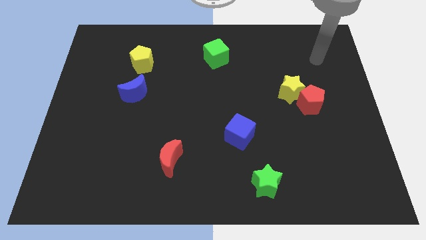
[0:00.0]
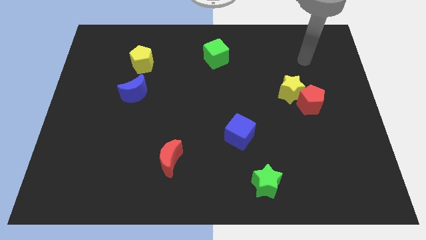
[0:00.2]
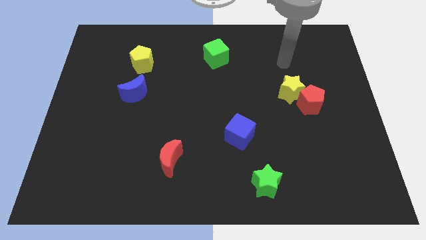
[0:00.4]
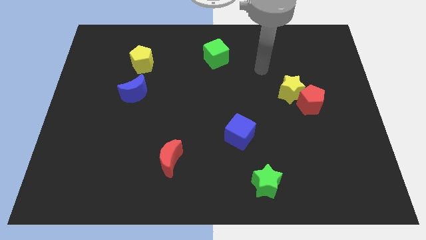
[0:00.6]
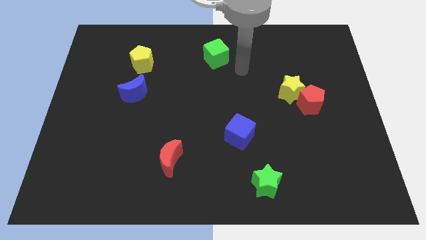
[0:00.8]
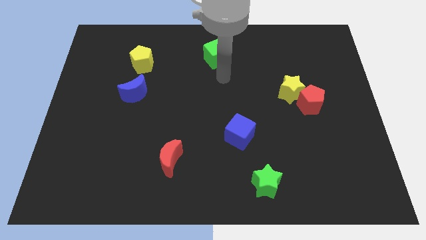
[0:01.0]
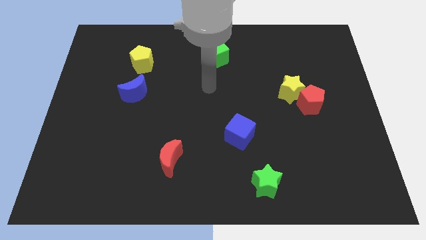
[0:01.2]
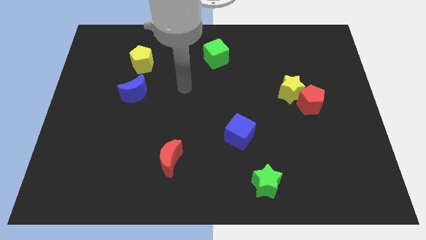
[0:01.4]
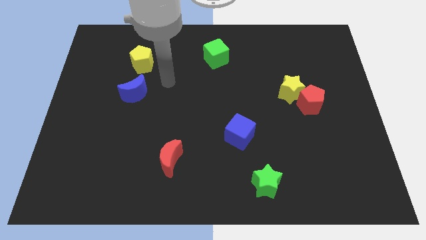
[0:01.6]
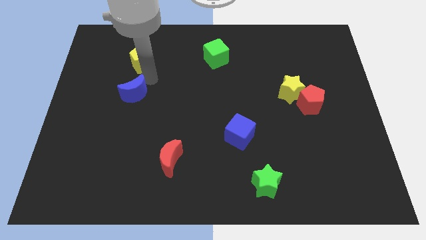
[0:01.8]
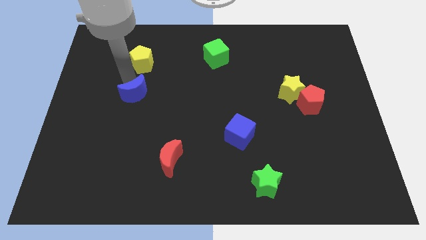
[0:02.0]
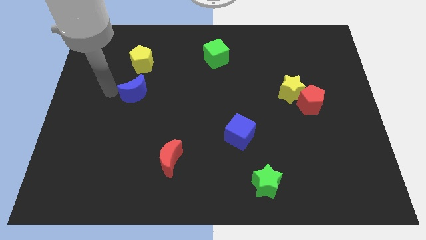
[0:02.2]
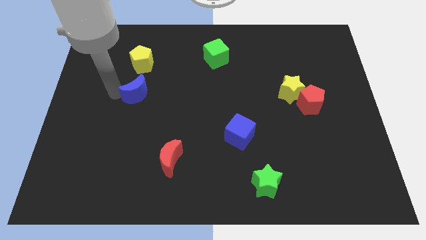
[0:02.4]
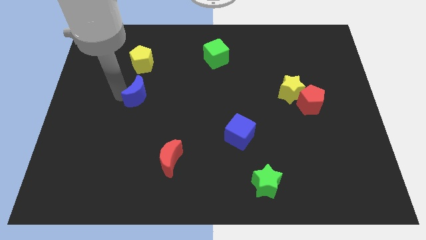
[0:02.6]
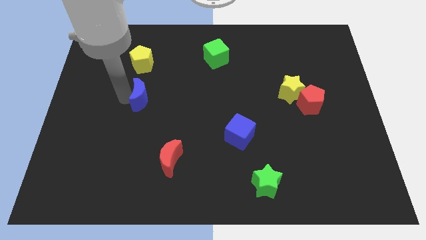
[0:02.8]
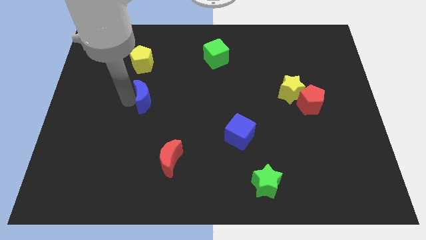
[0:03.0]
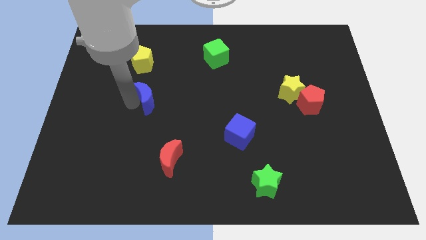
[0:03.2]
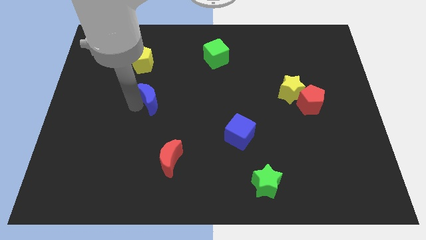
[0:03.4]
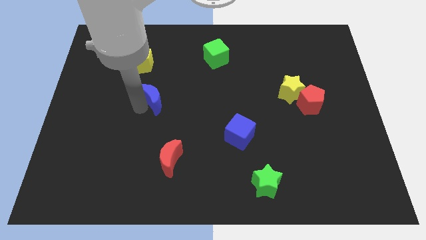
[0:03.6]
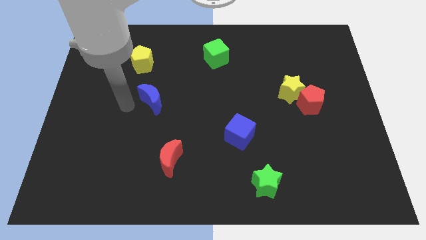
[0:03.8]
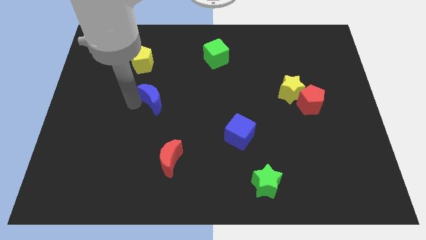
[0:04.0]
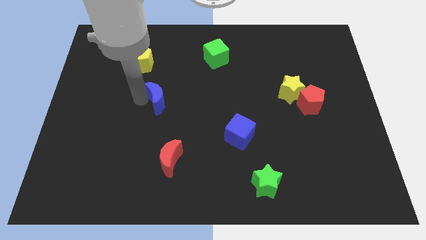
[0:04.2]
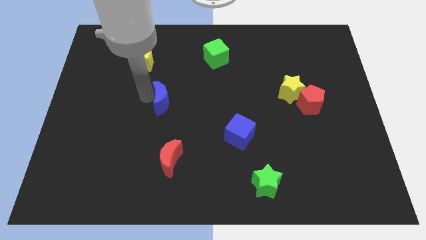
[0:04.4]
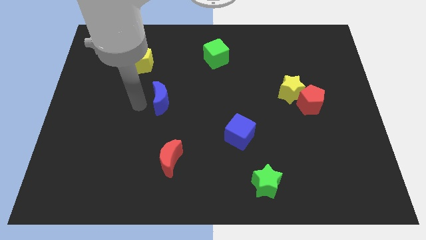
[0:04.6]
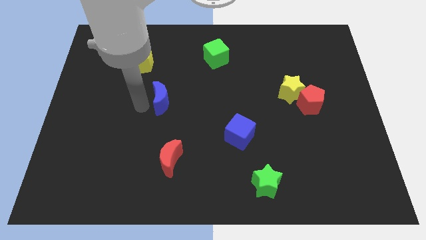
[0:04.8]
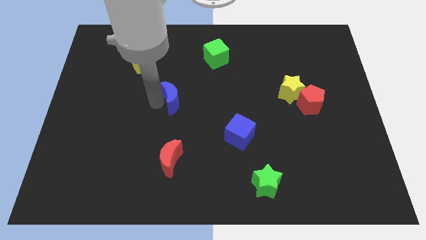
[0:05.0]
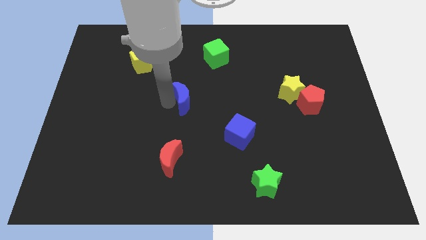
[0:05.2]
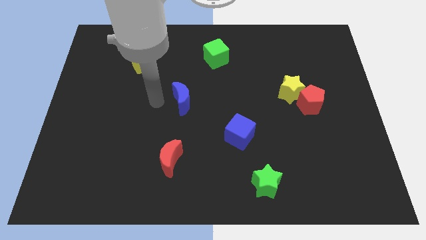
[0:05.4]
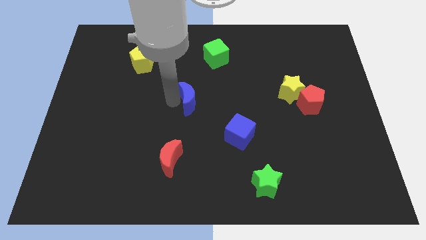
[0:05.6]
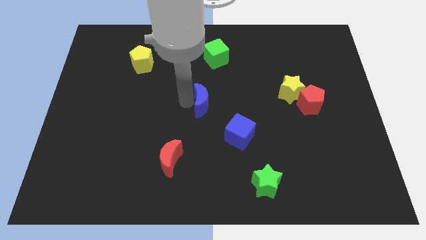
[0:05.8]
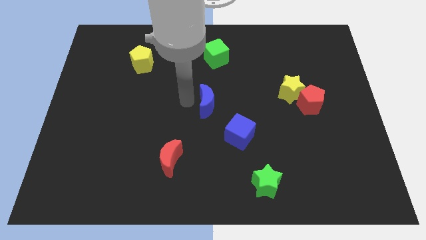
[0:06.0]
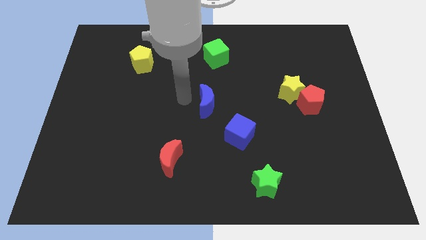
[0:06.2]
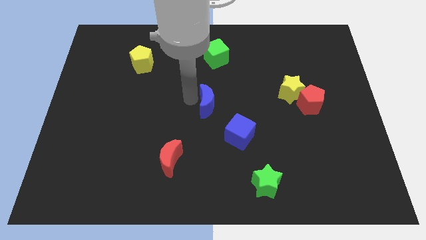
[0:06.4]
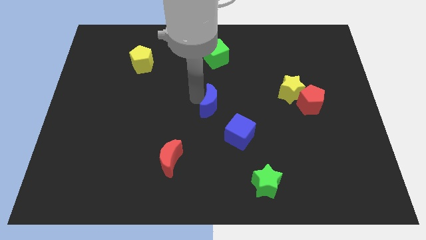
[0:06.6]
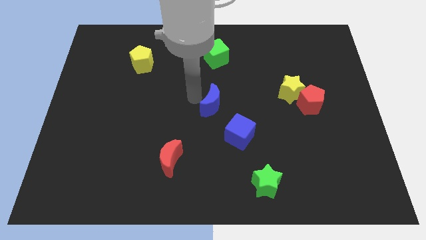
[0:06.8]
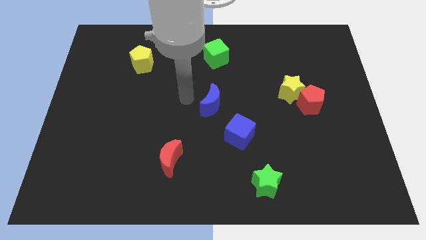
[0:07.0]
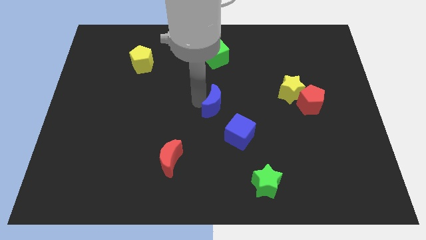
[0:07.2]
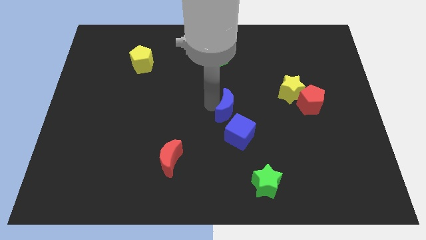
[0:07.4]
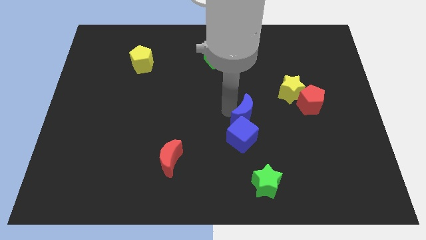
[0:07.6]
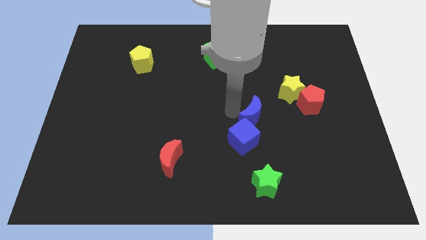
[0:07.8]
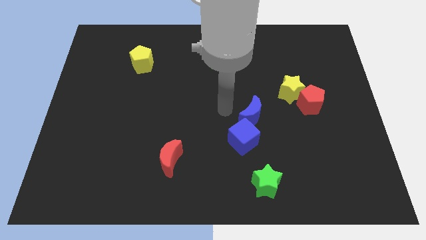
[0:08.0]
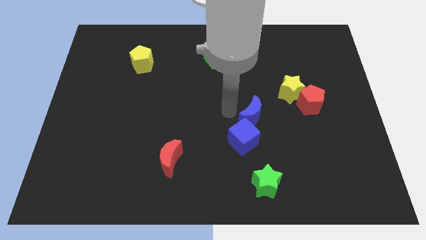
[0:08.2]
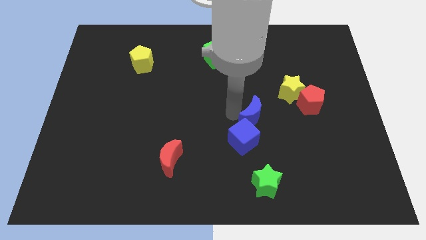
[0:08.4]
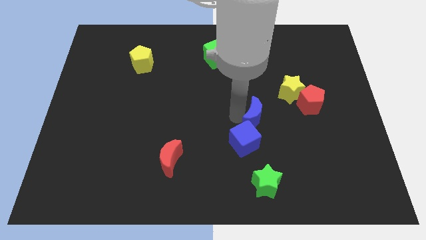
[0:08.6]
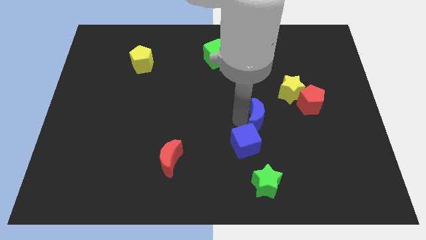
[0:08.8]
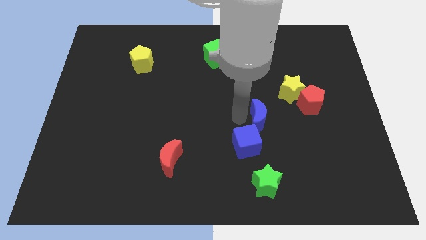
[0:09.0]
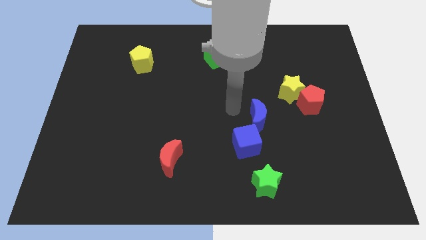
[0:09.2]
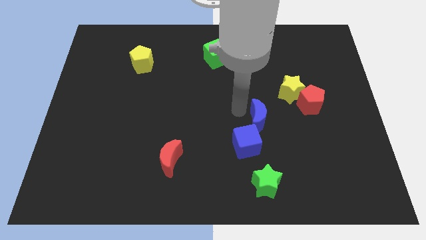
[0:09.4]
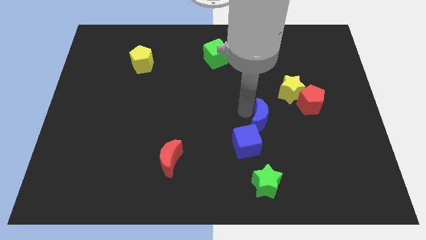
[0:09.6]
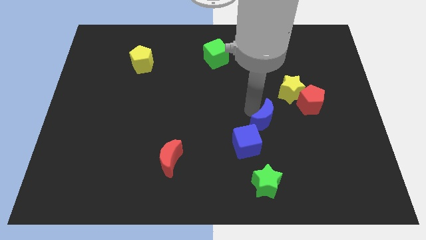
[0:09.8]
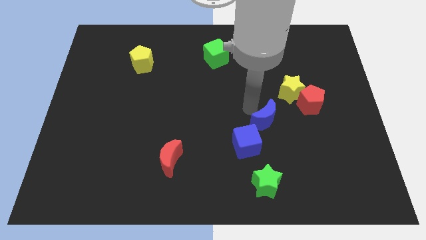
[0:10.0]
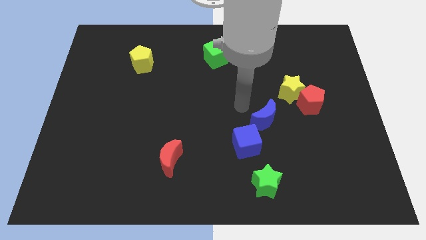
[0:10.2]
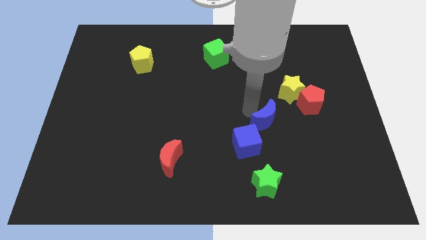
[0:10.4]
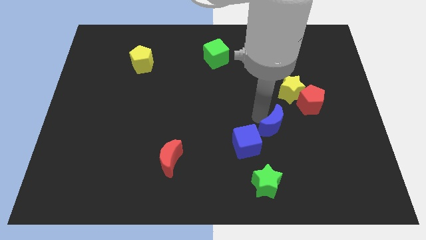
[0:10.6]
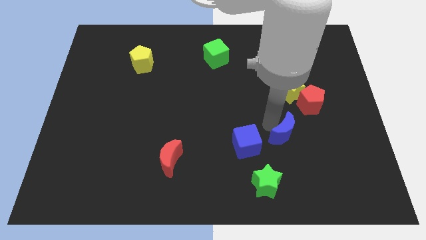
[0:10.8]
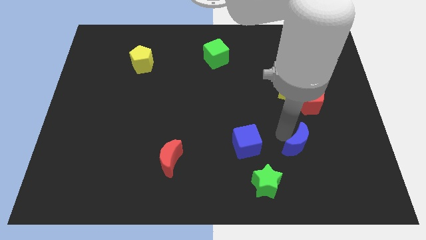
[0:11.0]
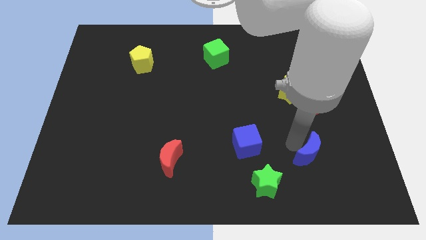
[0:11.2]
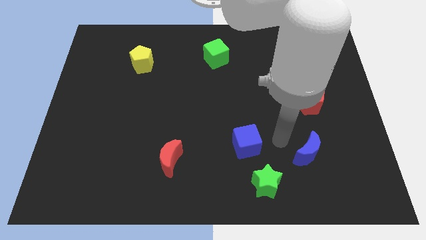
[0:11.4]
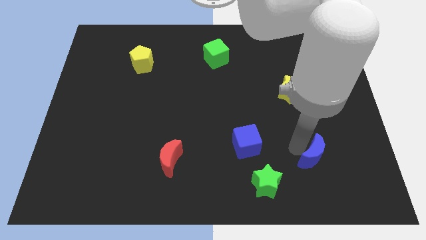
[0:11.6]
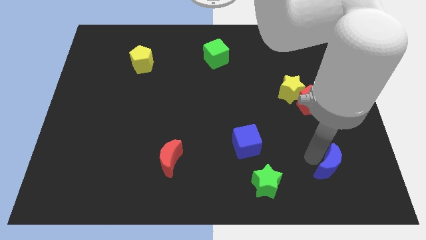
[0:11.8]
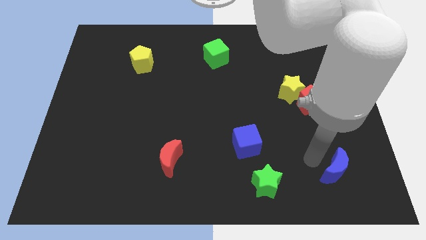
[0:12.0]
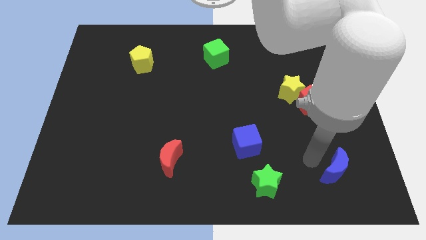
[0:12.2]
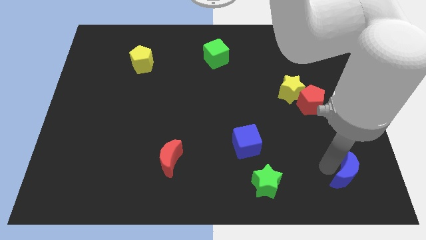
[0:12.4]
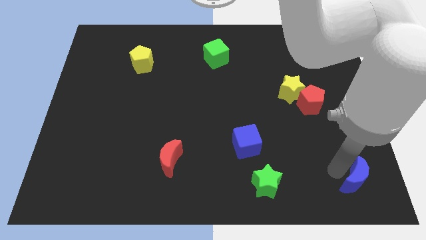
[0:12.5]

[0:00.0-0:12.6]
push the blue moon to the lower right corner

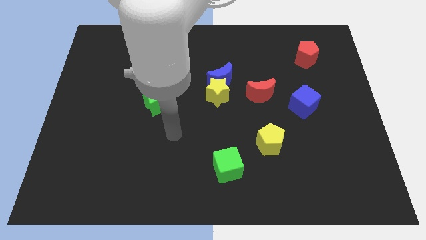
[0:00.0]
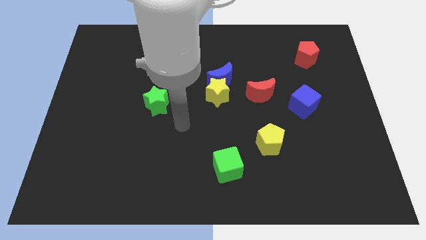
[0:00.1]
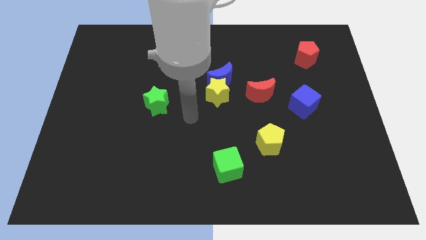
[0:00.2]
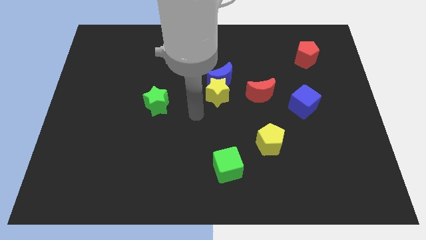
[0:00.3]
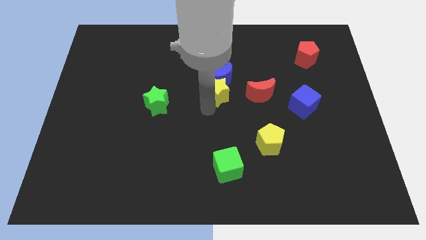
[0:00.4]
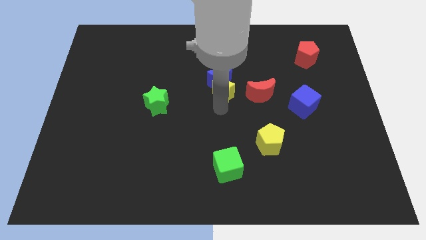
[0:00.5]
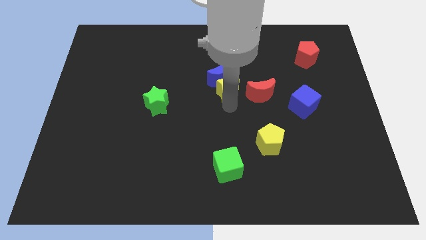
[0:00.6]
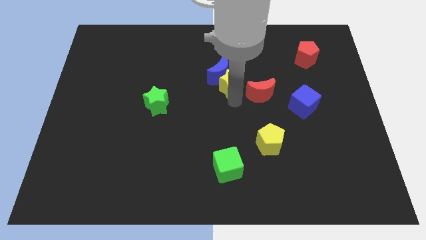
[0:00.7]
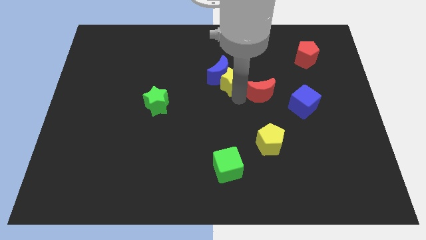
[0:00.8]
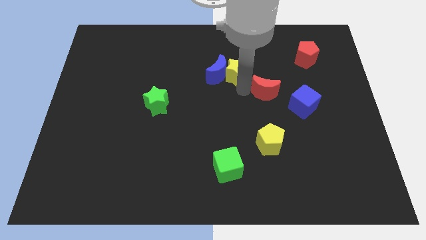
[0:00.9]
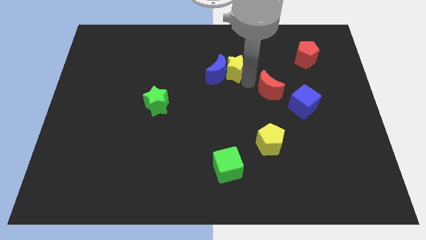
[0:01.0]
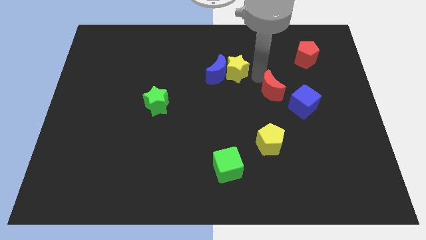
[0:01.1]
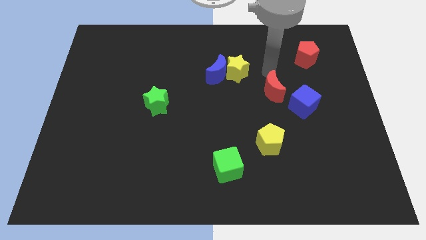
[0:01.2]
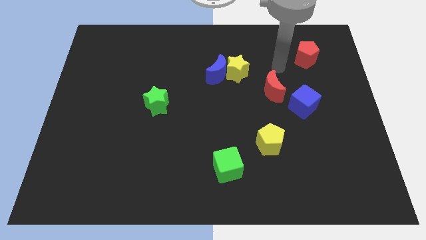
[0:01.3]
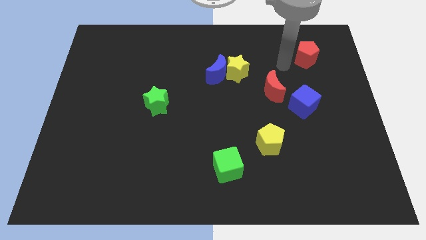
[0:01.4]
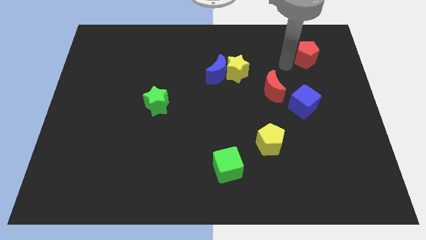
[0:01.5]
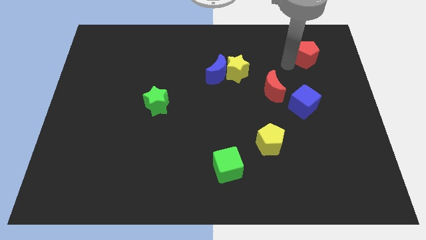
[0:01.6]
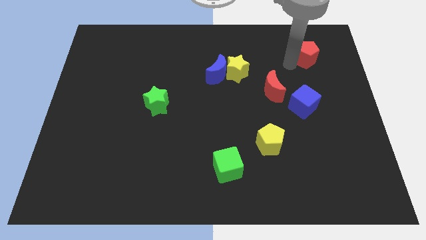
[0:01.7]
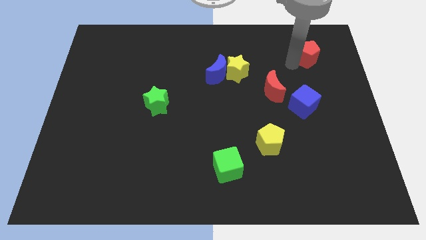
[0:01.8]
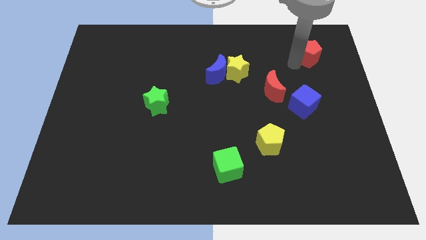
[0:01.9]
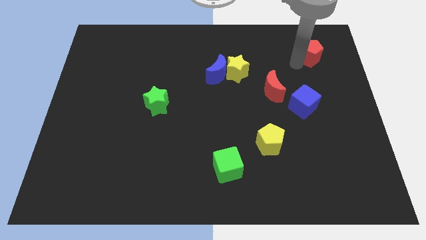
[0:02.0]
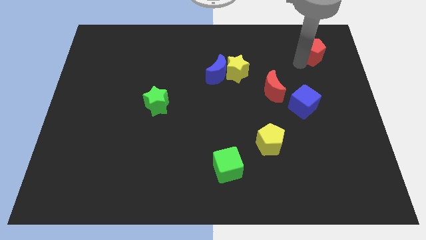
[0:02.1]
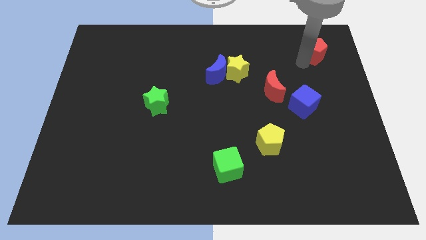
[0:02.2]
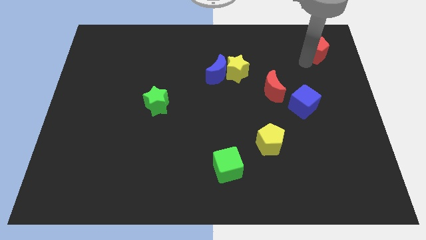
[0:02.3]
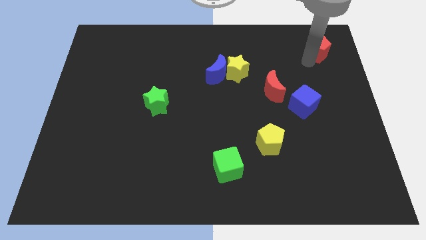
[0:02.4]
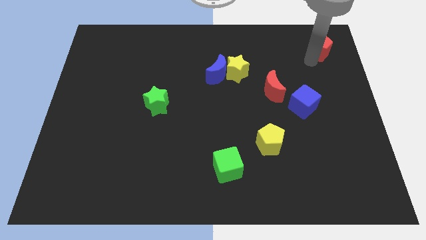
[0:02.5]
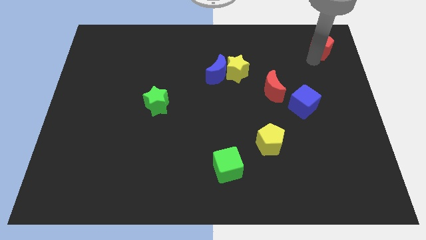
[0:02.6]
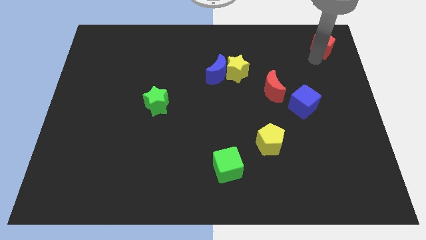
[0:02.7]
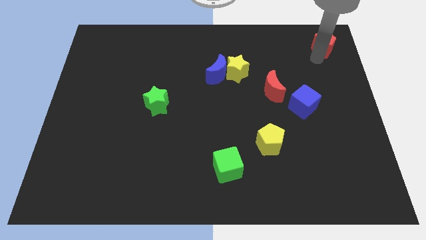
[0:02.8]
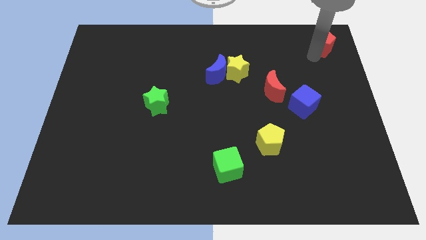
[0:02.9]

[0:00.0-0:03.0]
slide the red pentagon to the top right corner
